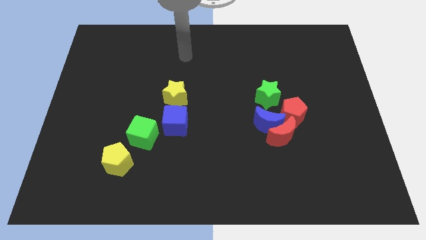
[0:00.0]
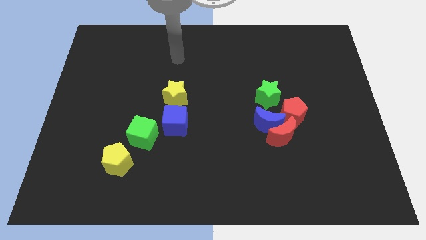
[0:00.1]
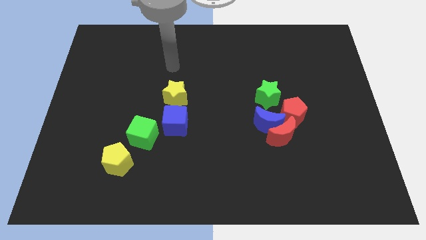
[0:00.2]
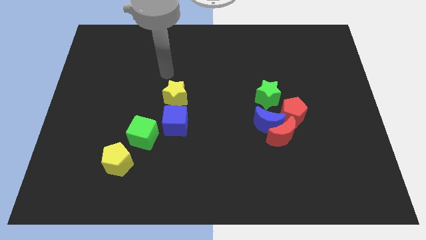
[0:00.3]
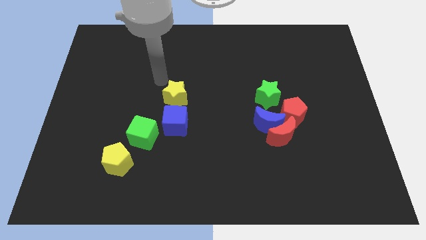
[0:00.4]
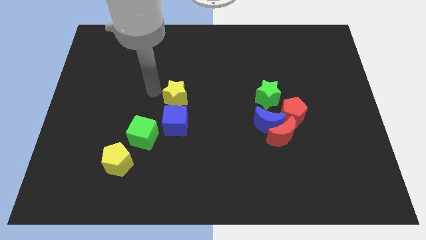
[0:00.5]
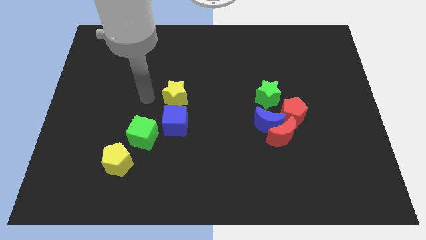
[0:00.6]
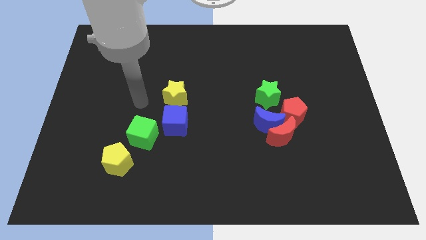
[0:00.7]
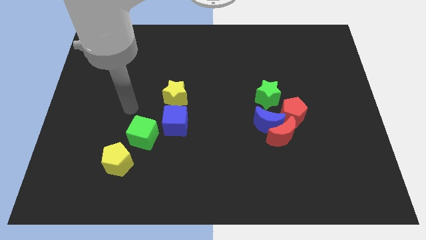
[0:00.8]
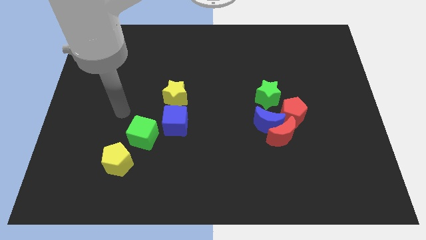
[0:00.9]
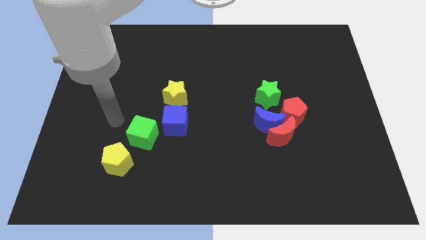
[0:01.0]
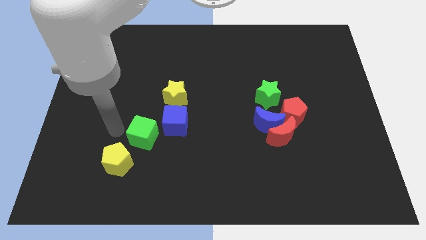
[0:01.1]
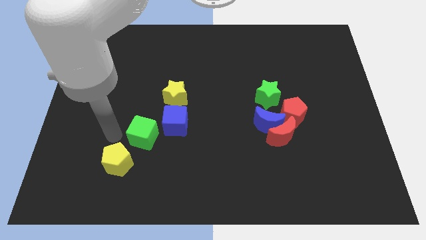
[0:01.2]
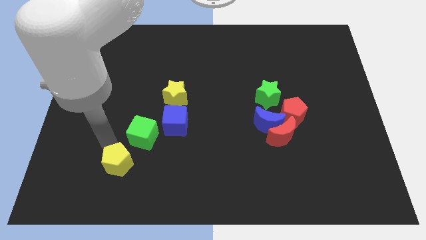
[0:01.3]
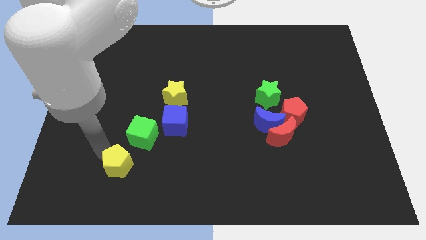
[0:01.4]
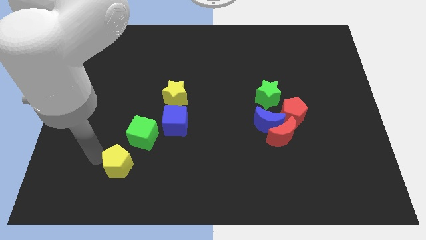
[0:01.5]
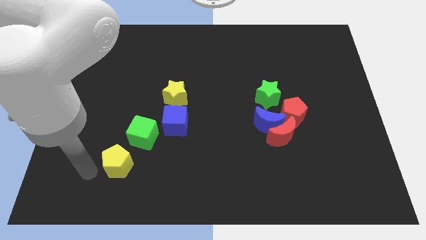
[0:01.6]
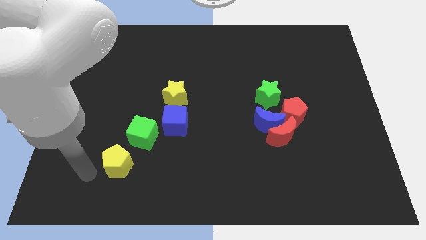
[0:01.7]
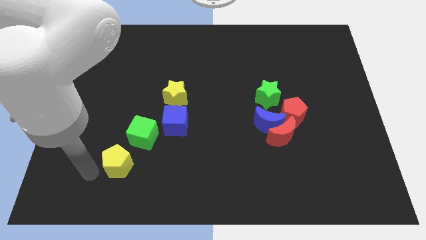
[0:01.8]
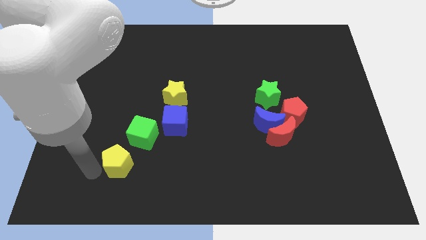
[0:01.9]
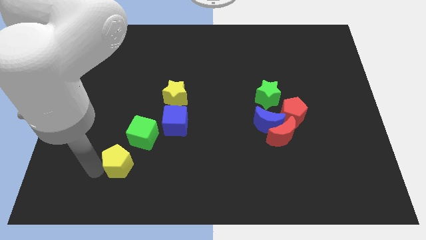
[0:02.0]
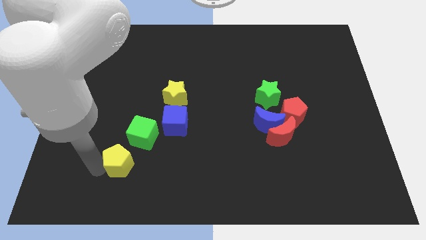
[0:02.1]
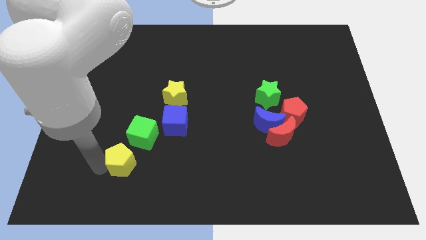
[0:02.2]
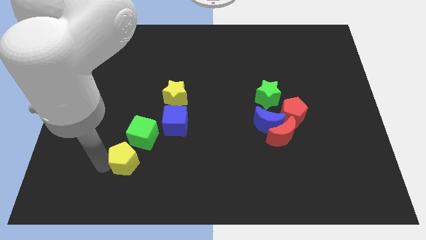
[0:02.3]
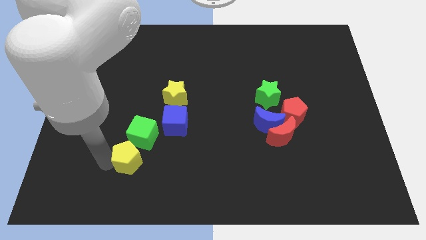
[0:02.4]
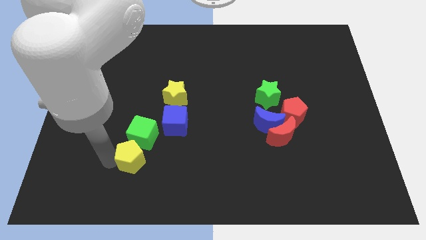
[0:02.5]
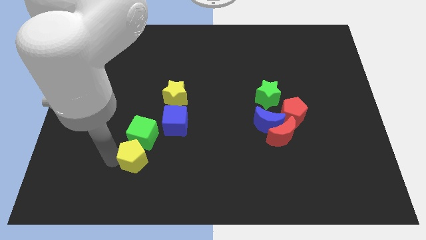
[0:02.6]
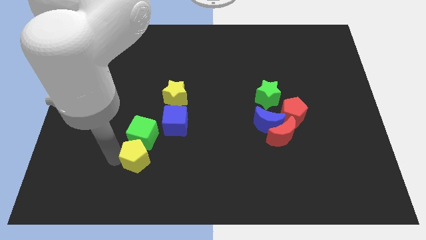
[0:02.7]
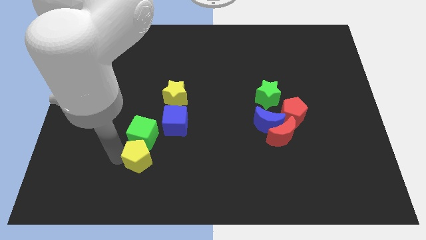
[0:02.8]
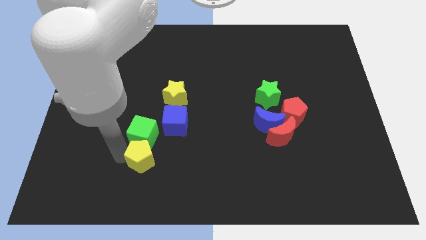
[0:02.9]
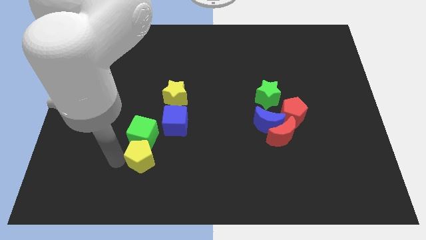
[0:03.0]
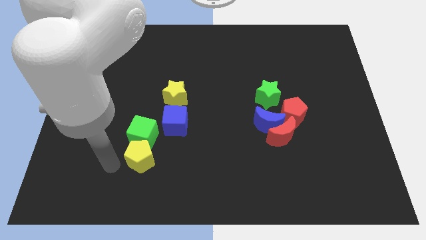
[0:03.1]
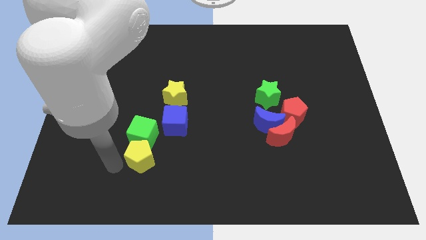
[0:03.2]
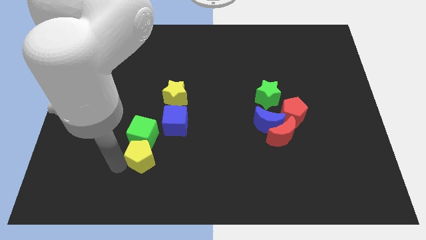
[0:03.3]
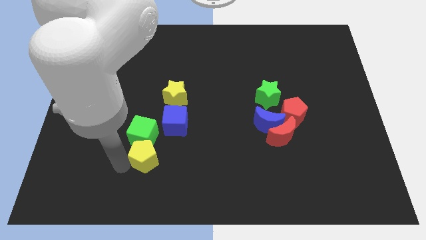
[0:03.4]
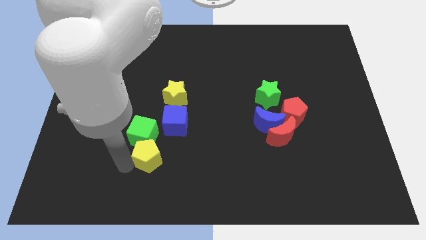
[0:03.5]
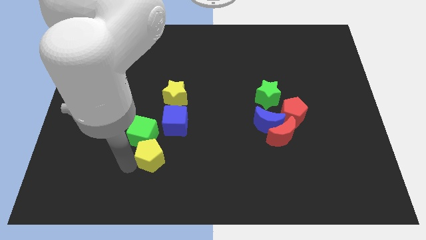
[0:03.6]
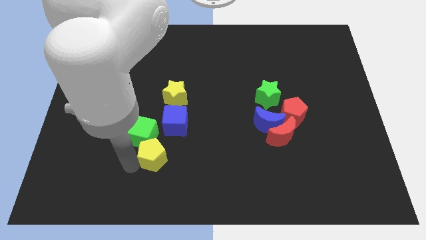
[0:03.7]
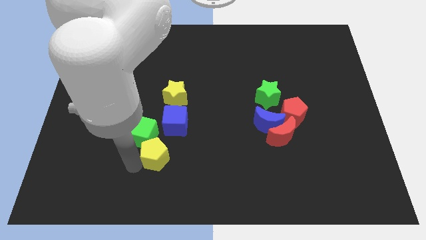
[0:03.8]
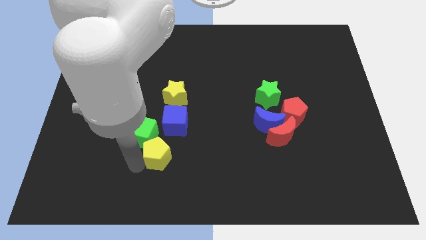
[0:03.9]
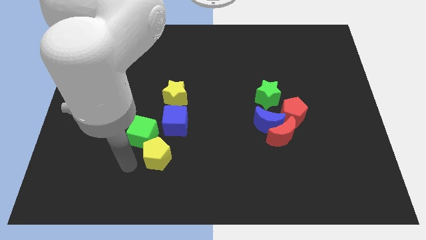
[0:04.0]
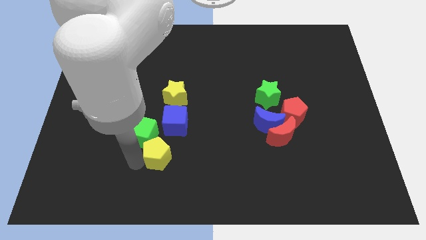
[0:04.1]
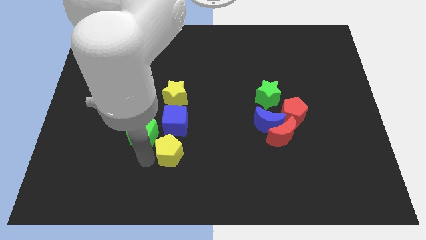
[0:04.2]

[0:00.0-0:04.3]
slide the yellow pentagon a little bit upwards and right diagonally

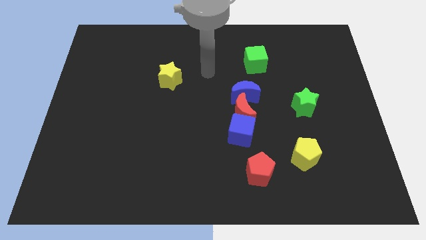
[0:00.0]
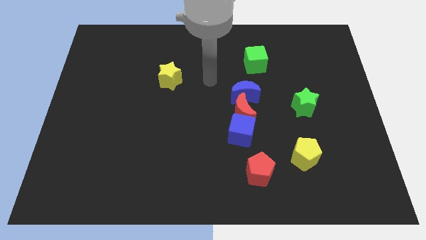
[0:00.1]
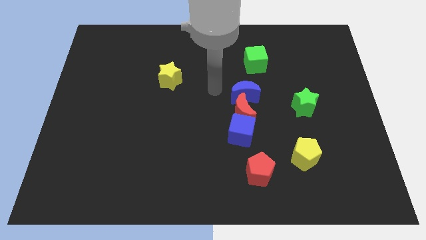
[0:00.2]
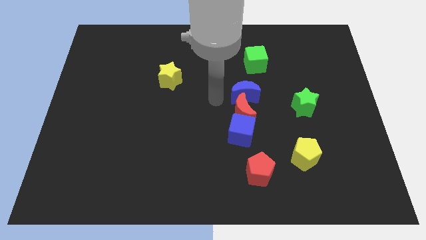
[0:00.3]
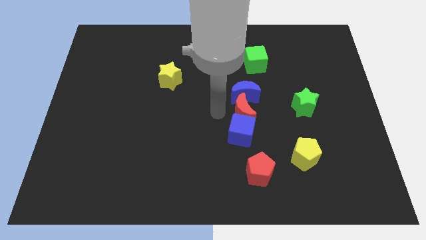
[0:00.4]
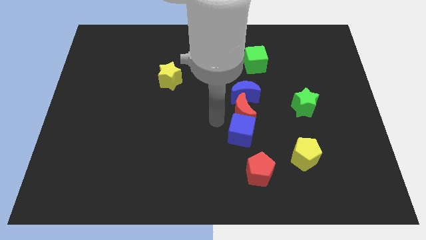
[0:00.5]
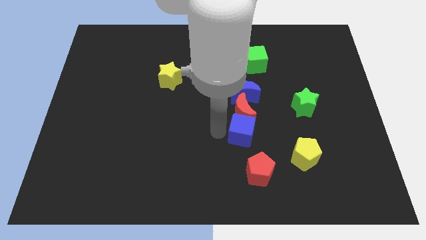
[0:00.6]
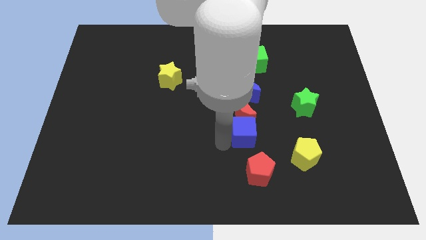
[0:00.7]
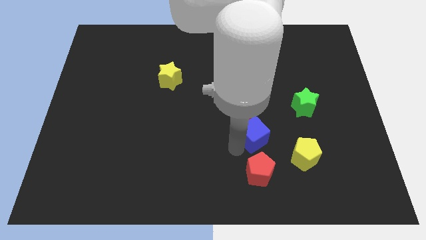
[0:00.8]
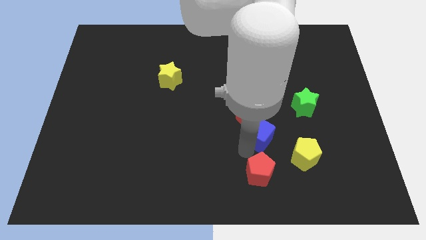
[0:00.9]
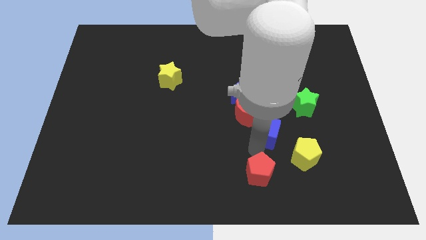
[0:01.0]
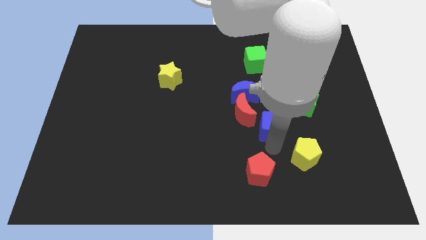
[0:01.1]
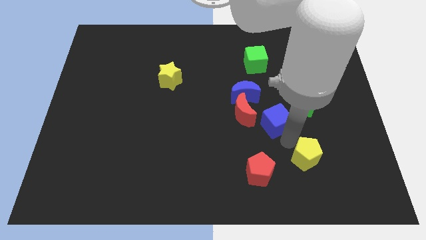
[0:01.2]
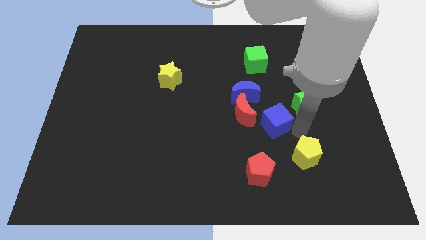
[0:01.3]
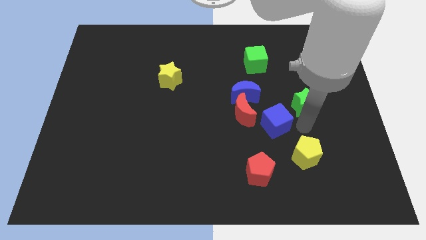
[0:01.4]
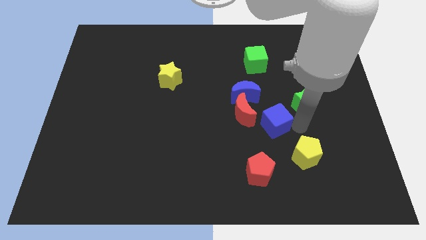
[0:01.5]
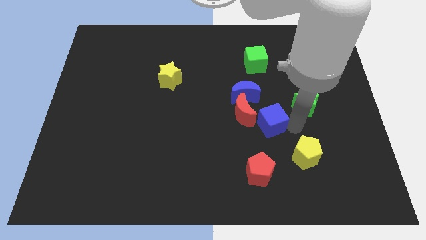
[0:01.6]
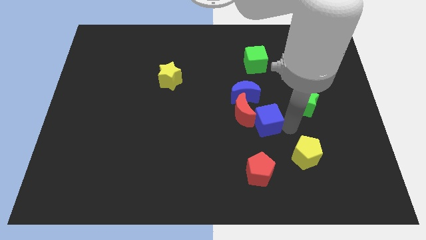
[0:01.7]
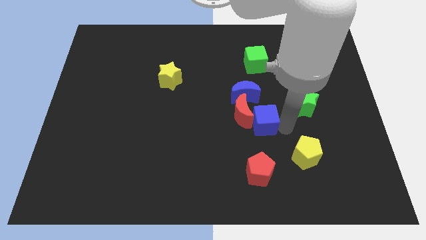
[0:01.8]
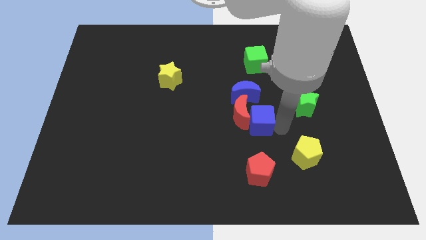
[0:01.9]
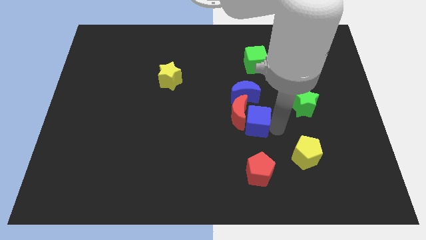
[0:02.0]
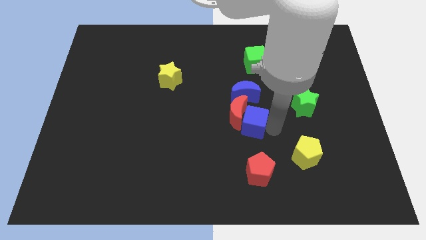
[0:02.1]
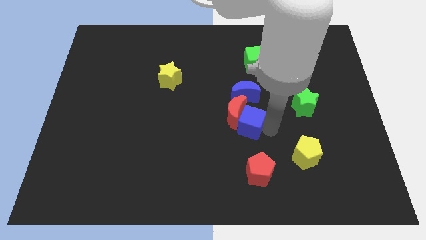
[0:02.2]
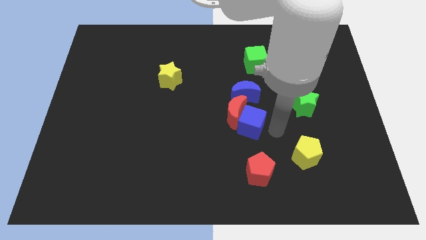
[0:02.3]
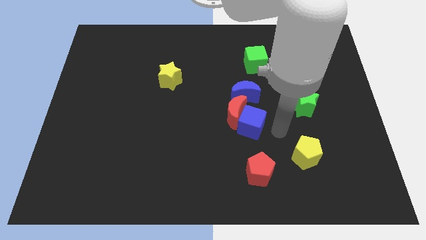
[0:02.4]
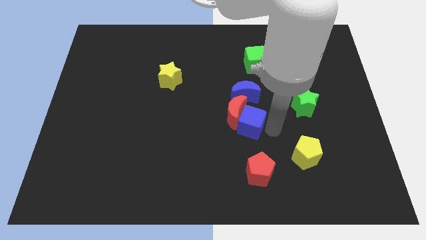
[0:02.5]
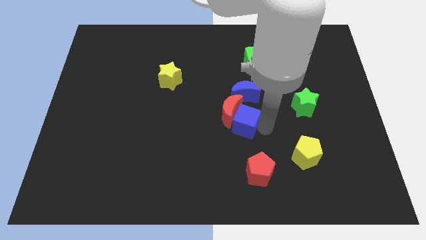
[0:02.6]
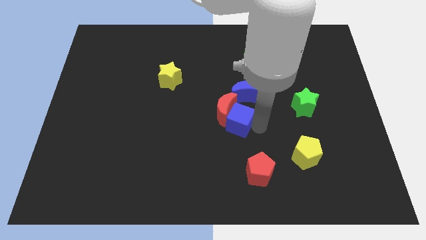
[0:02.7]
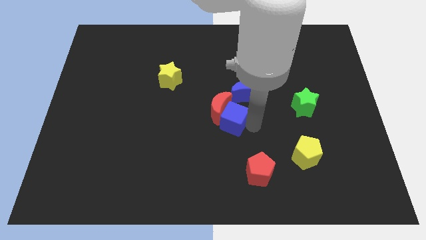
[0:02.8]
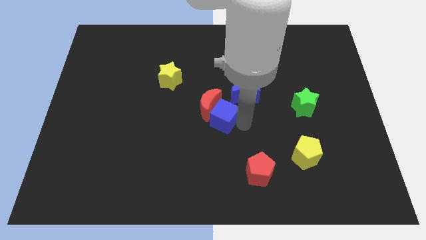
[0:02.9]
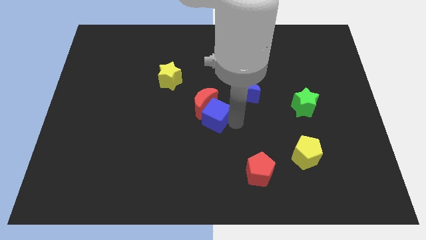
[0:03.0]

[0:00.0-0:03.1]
slide the blue cube diagonally up and to the left a little bit

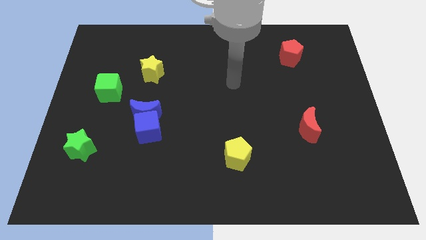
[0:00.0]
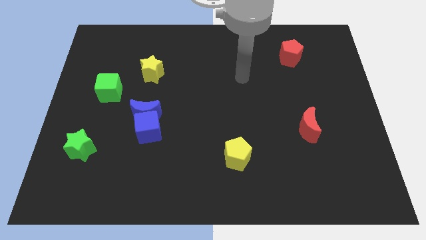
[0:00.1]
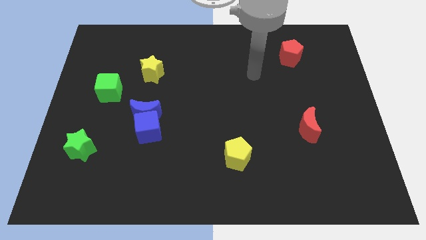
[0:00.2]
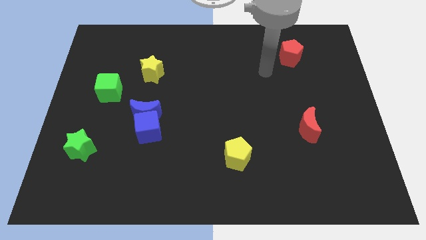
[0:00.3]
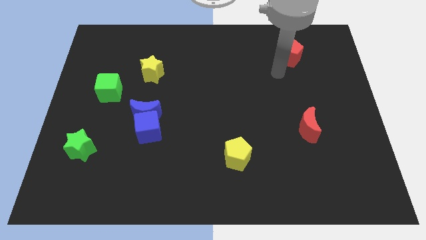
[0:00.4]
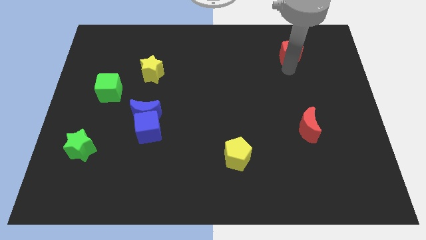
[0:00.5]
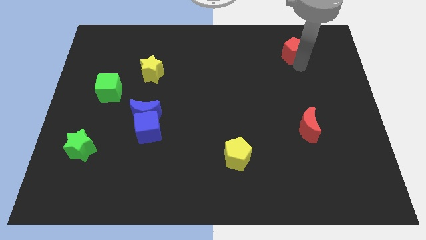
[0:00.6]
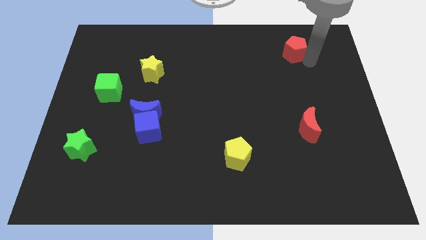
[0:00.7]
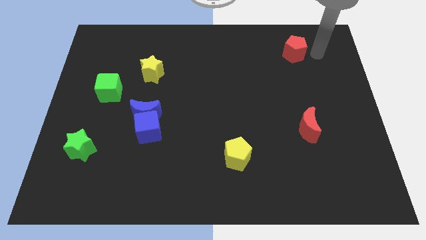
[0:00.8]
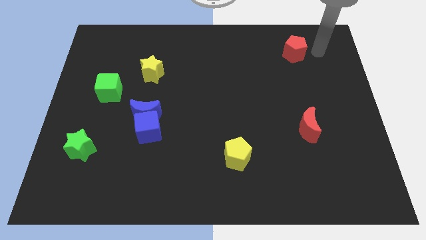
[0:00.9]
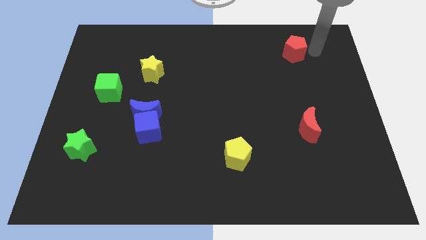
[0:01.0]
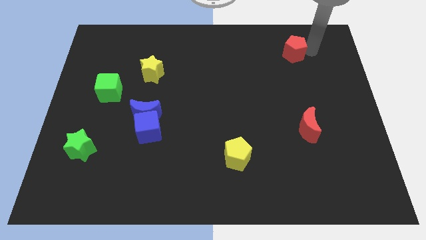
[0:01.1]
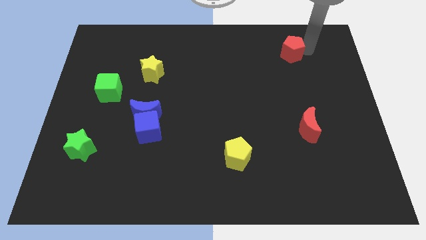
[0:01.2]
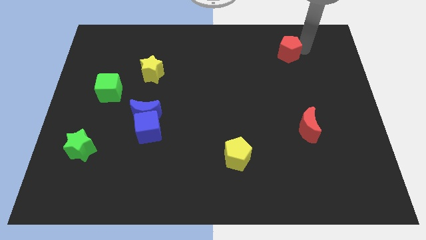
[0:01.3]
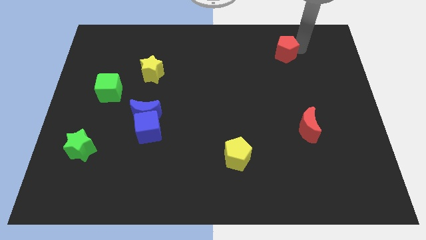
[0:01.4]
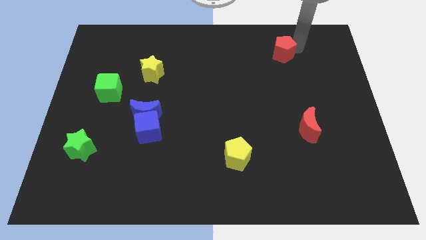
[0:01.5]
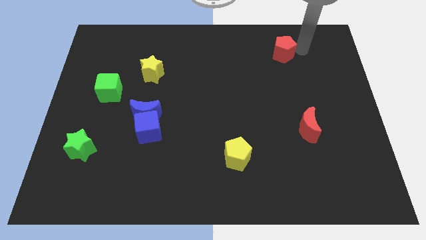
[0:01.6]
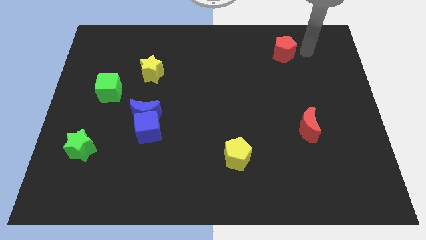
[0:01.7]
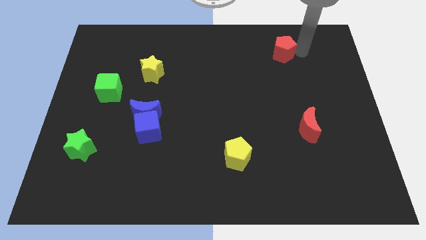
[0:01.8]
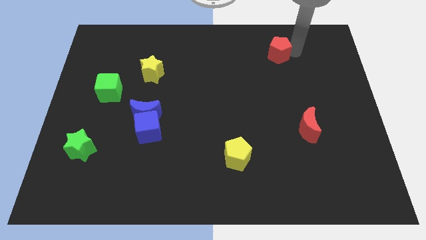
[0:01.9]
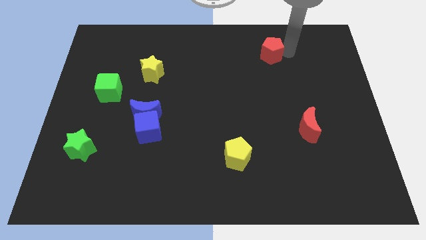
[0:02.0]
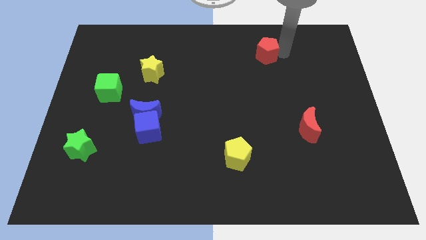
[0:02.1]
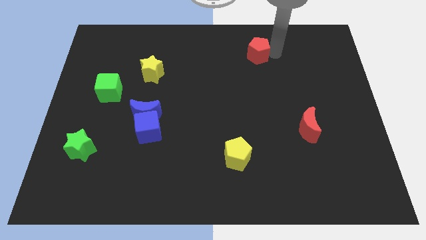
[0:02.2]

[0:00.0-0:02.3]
move the red pentagon left slightly
